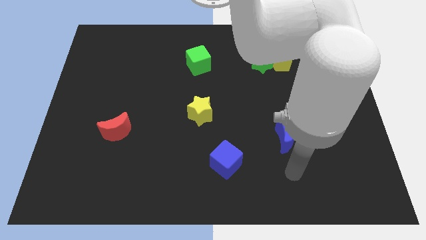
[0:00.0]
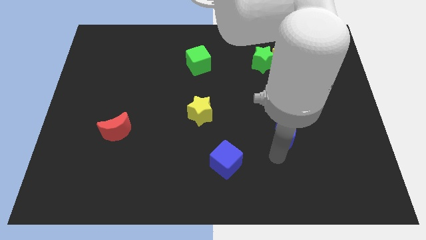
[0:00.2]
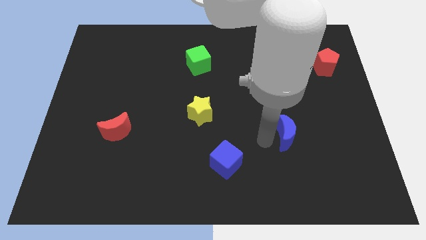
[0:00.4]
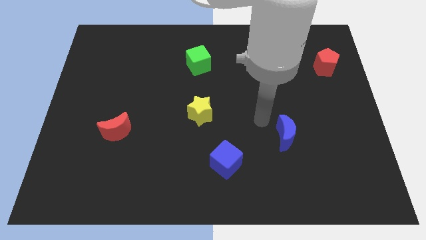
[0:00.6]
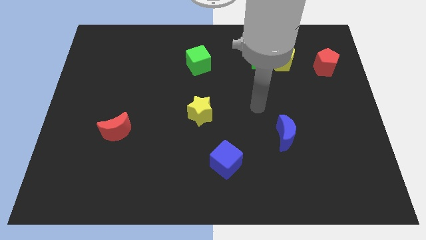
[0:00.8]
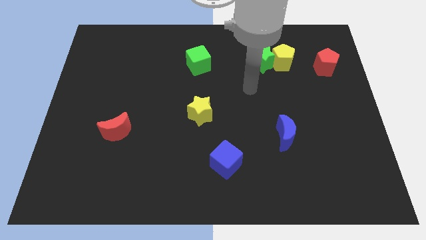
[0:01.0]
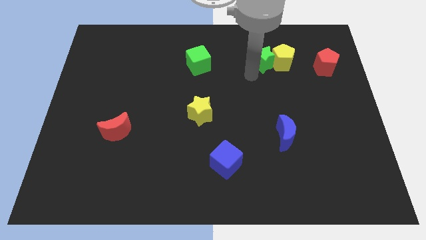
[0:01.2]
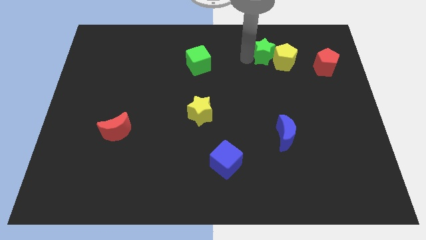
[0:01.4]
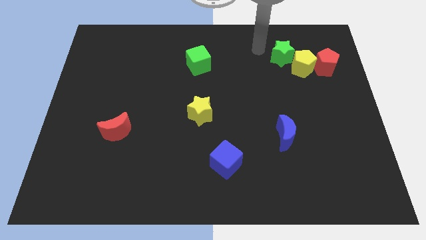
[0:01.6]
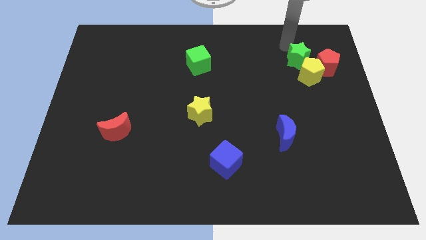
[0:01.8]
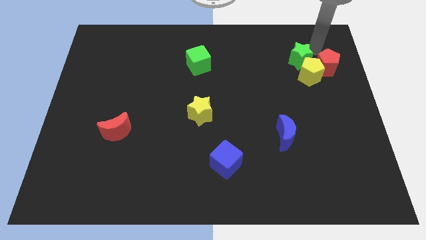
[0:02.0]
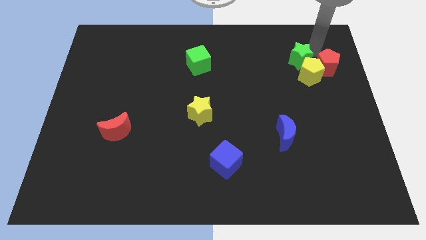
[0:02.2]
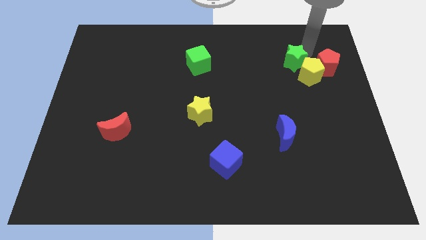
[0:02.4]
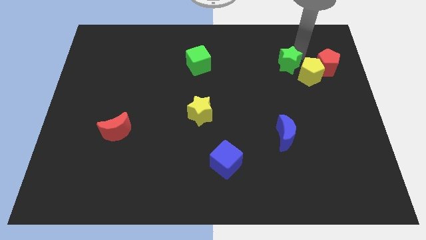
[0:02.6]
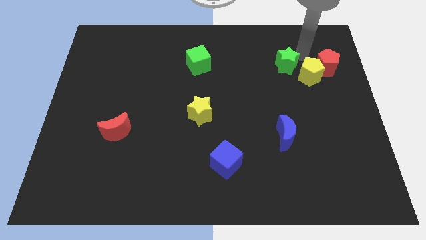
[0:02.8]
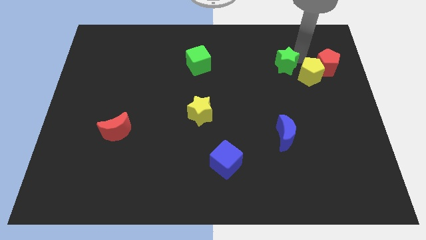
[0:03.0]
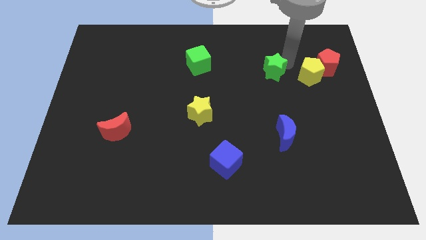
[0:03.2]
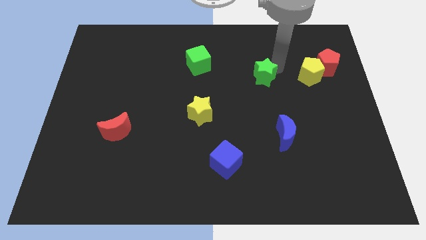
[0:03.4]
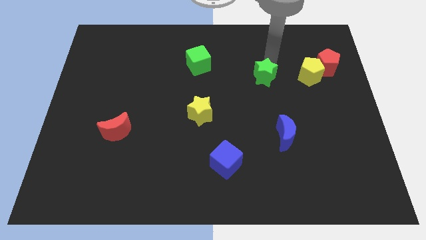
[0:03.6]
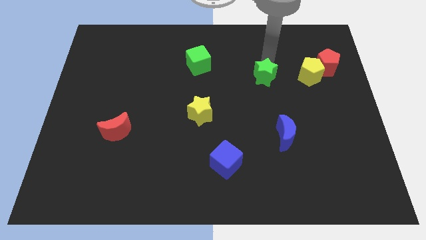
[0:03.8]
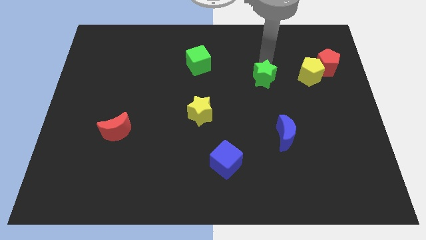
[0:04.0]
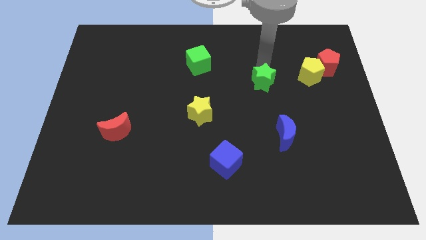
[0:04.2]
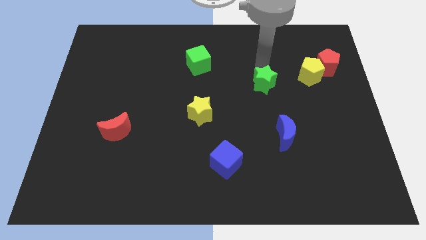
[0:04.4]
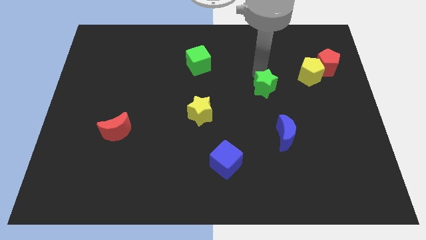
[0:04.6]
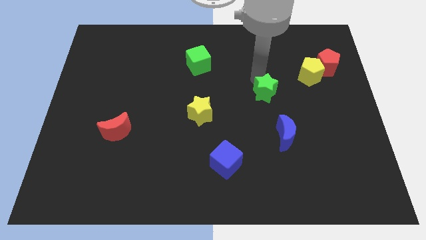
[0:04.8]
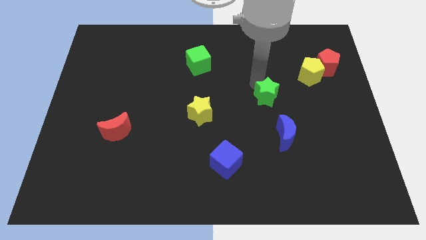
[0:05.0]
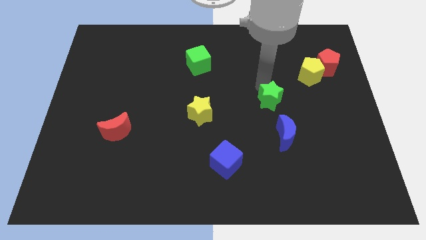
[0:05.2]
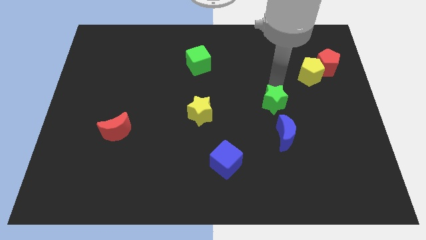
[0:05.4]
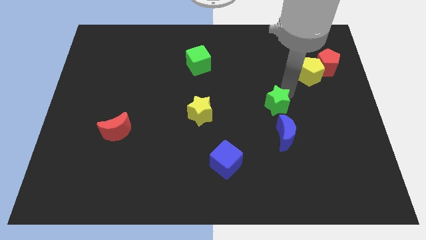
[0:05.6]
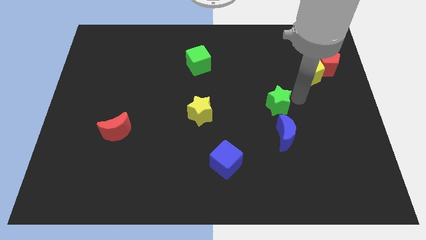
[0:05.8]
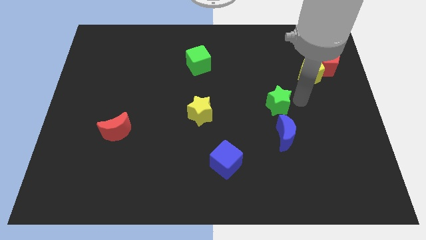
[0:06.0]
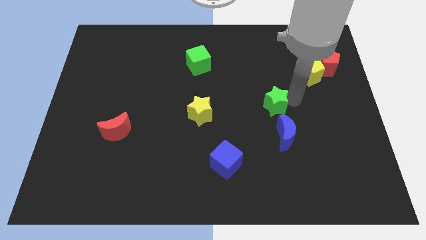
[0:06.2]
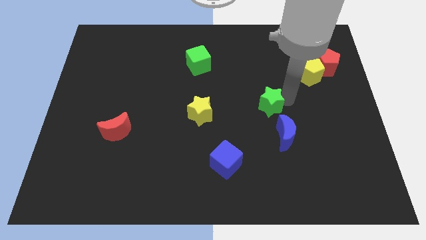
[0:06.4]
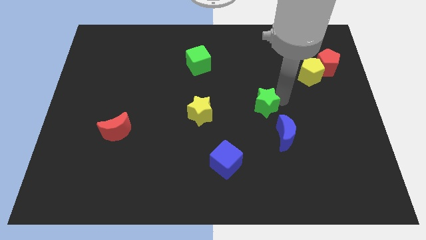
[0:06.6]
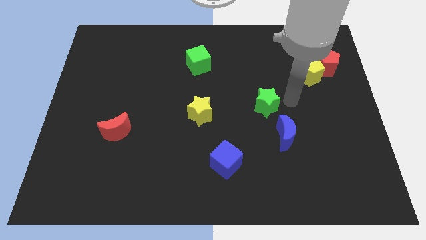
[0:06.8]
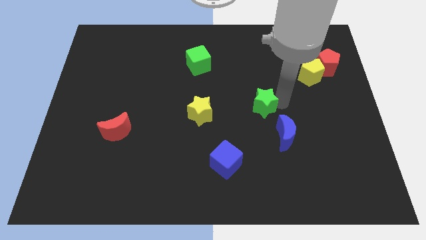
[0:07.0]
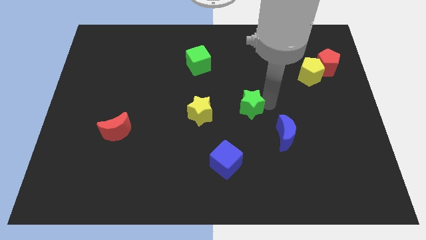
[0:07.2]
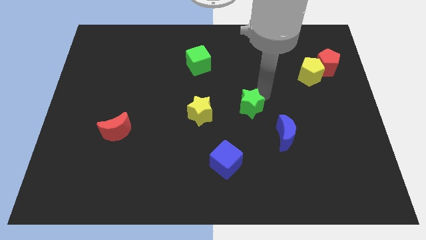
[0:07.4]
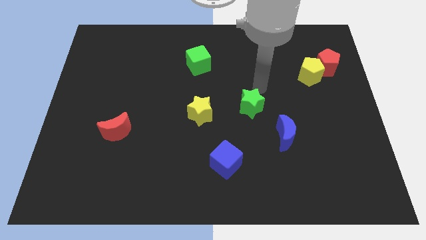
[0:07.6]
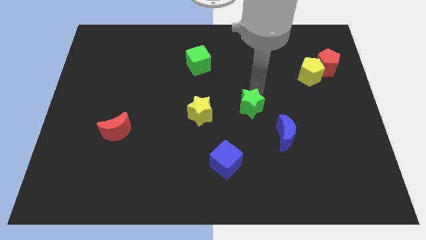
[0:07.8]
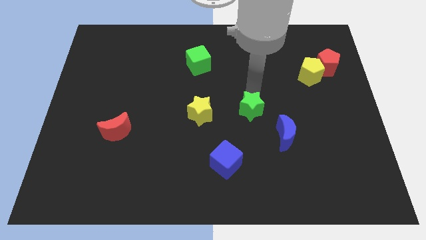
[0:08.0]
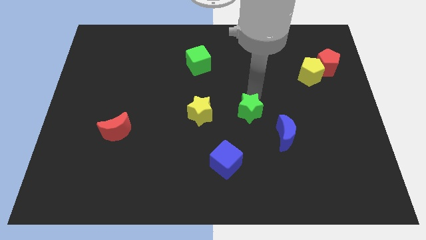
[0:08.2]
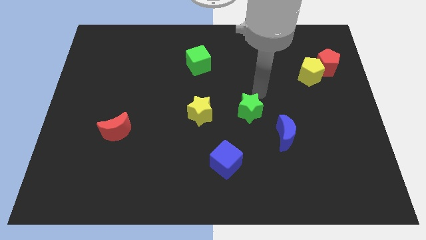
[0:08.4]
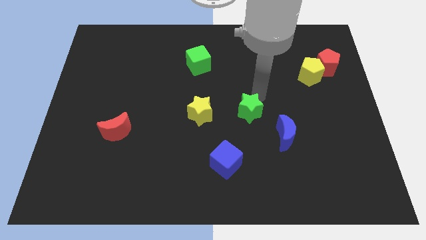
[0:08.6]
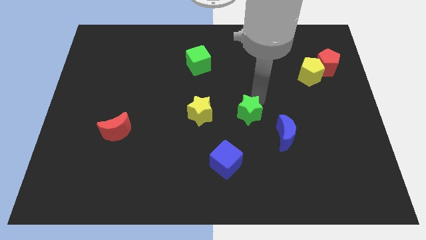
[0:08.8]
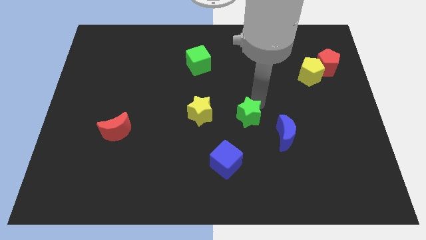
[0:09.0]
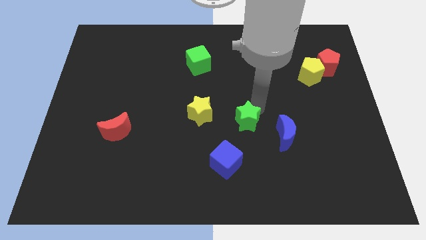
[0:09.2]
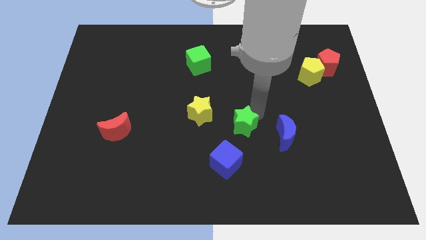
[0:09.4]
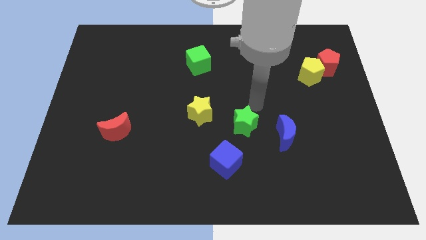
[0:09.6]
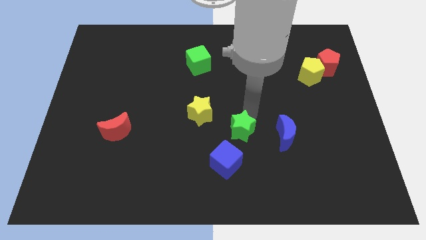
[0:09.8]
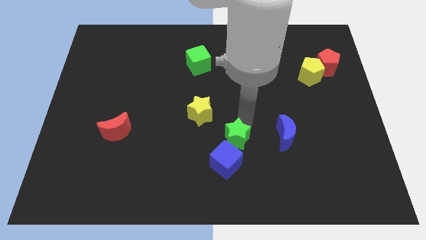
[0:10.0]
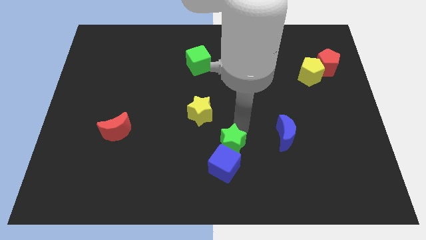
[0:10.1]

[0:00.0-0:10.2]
slide the green star next to the blue cube

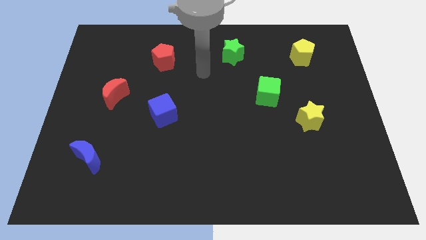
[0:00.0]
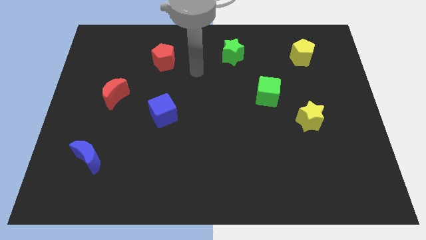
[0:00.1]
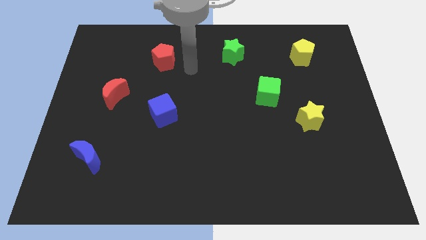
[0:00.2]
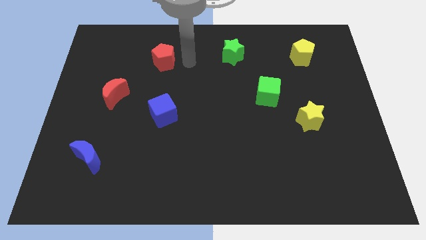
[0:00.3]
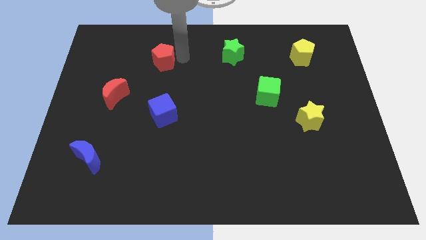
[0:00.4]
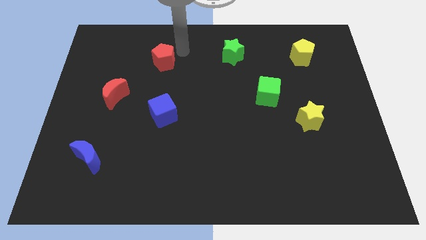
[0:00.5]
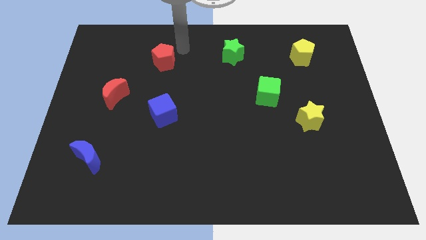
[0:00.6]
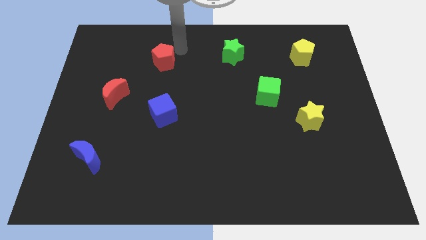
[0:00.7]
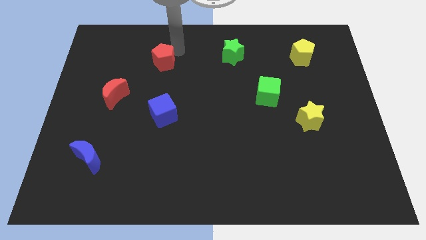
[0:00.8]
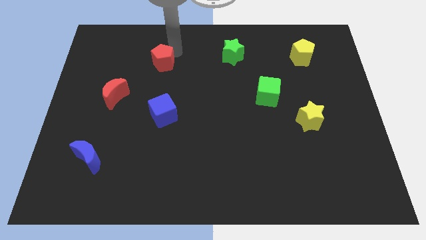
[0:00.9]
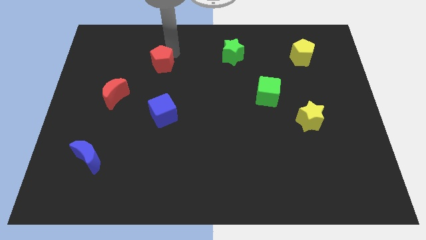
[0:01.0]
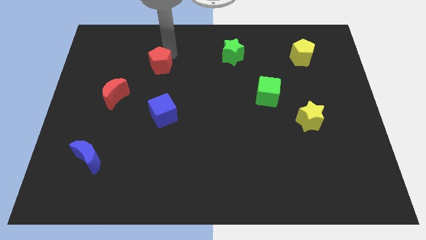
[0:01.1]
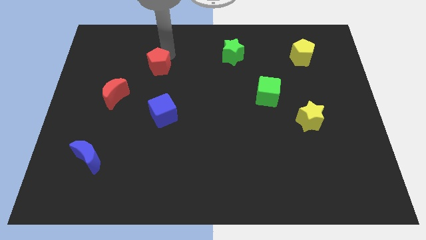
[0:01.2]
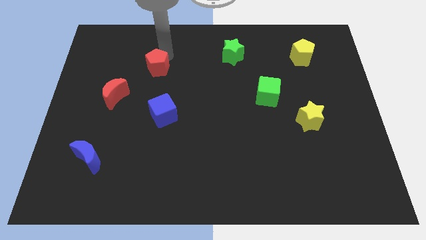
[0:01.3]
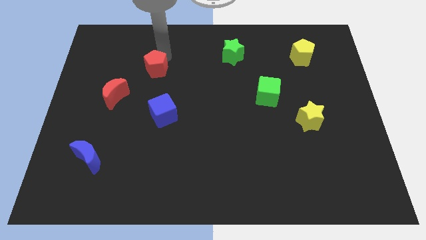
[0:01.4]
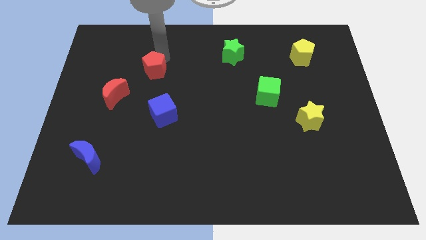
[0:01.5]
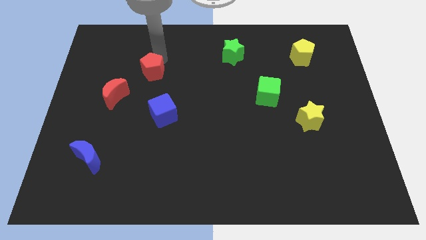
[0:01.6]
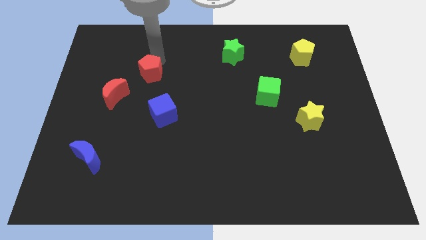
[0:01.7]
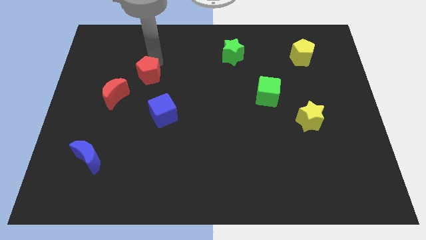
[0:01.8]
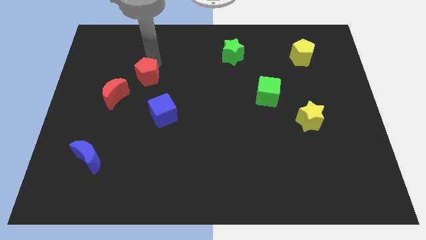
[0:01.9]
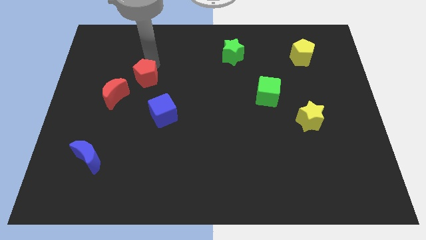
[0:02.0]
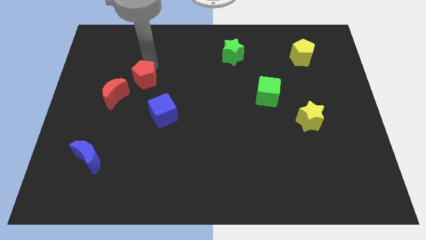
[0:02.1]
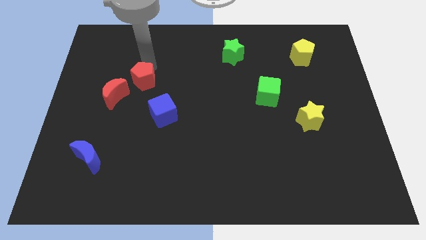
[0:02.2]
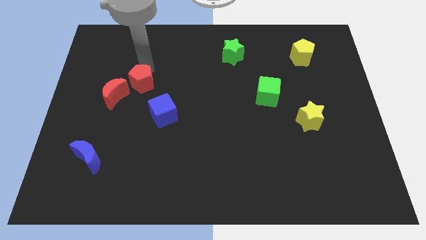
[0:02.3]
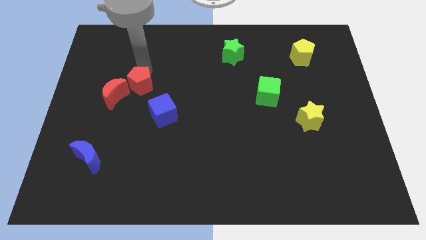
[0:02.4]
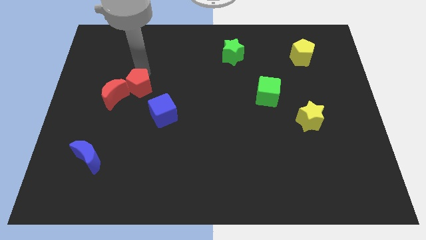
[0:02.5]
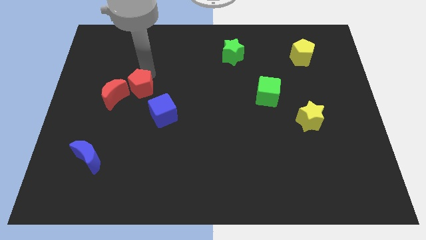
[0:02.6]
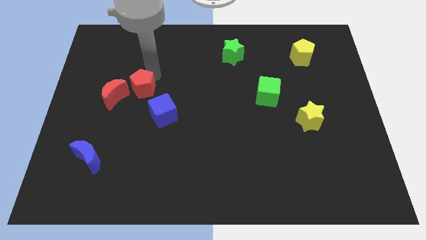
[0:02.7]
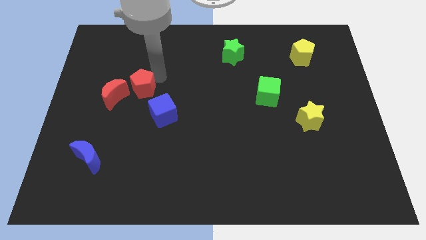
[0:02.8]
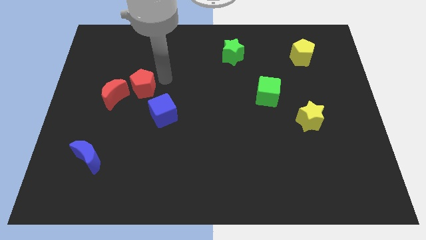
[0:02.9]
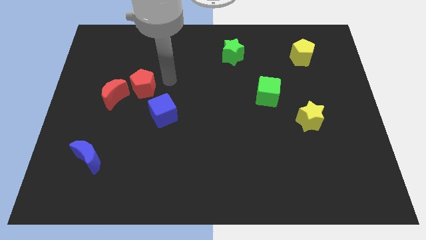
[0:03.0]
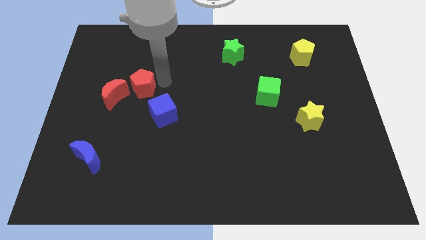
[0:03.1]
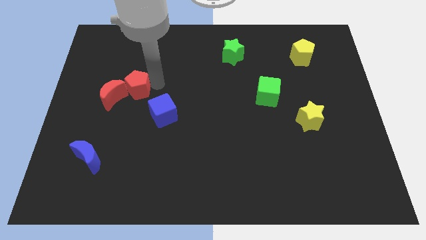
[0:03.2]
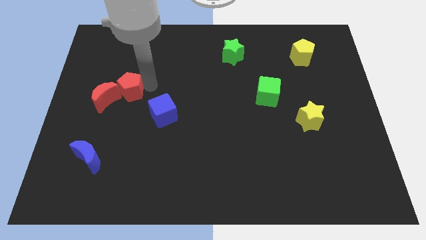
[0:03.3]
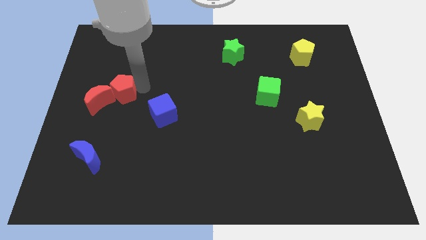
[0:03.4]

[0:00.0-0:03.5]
put the red pentagon to the red moon
